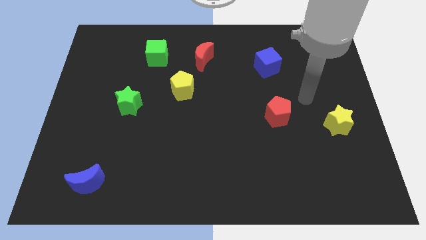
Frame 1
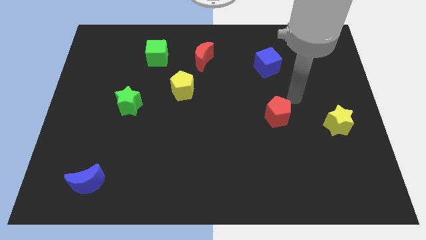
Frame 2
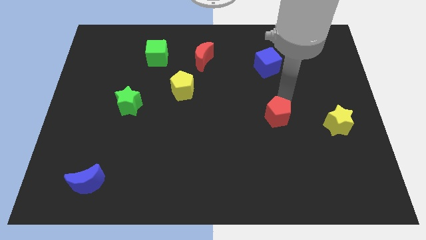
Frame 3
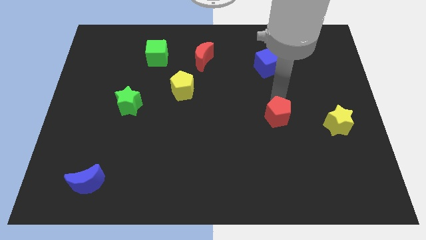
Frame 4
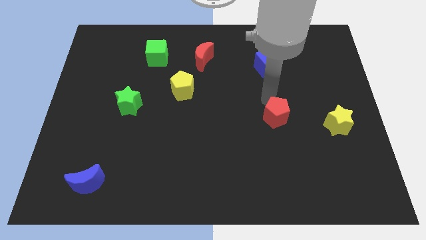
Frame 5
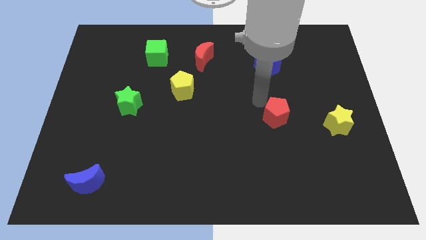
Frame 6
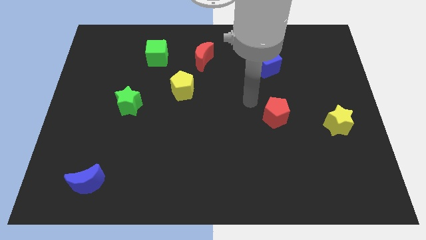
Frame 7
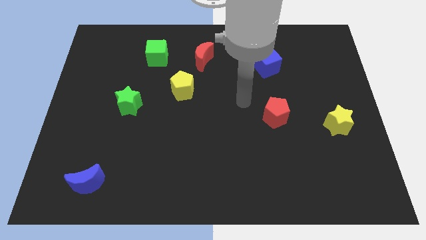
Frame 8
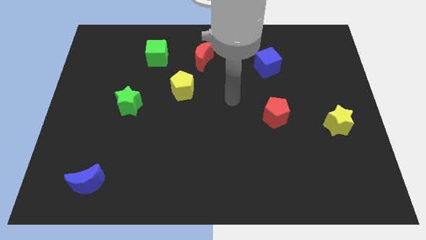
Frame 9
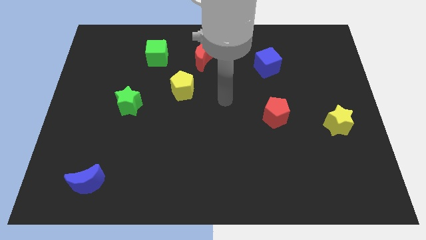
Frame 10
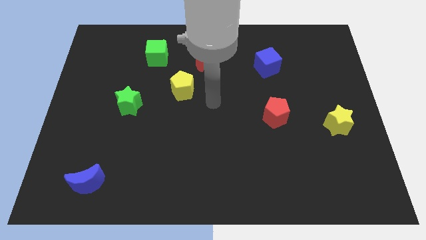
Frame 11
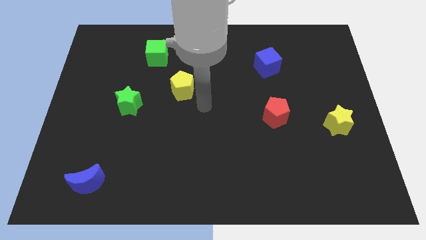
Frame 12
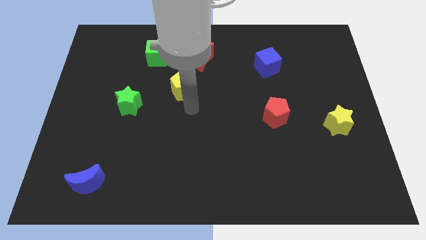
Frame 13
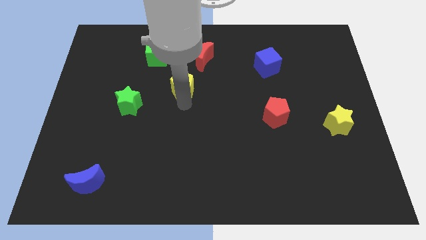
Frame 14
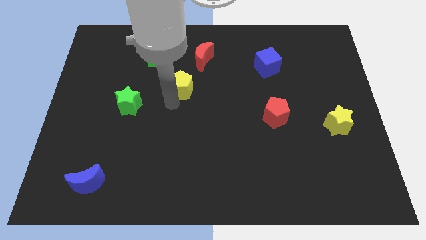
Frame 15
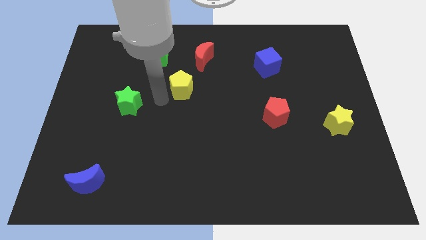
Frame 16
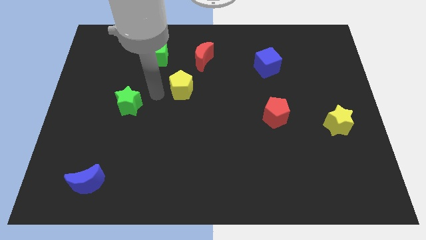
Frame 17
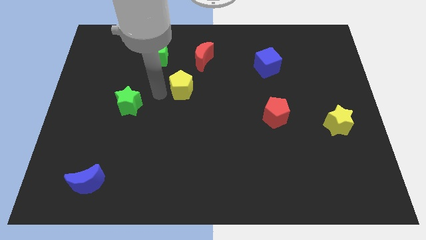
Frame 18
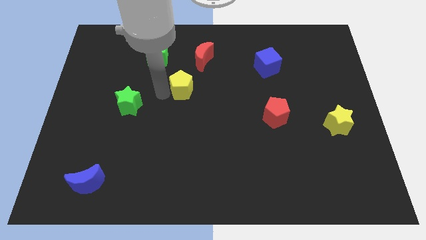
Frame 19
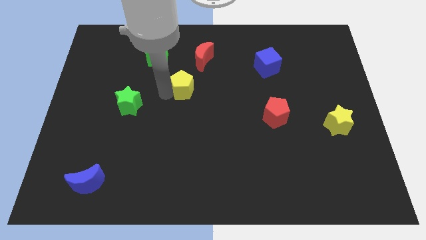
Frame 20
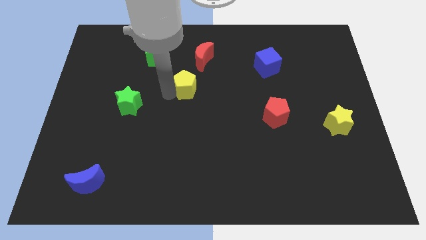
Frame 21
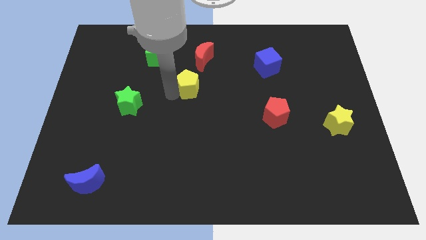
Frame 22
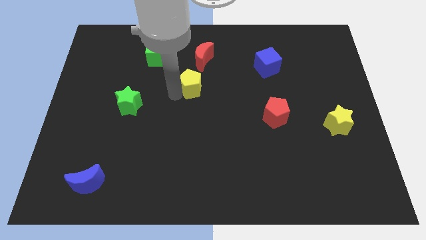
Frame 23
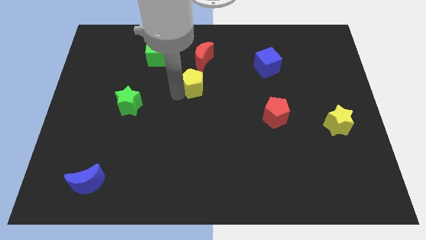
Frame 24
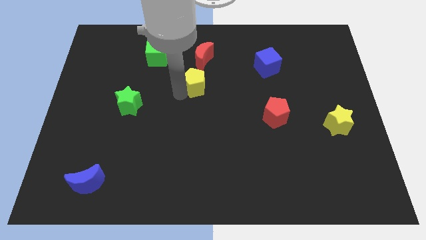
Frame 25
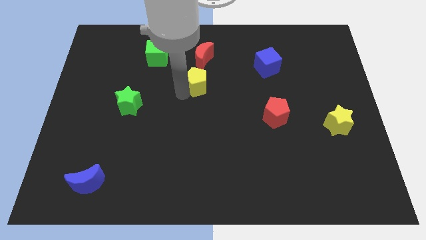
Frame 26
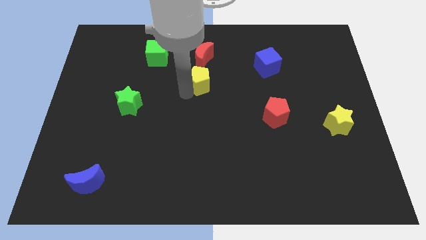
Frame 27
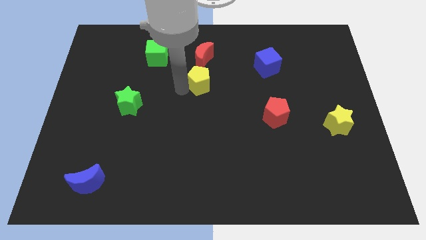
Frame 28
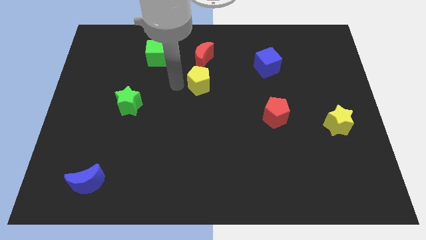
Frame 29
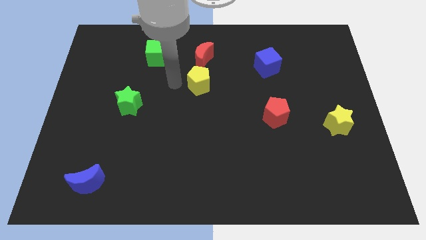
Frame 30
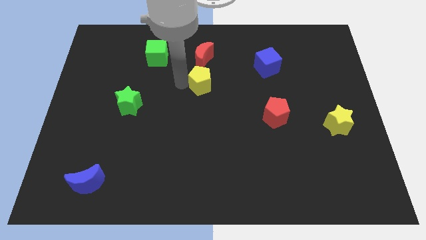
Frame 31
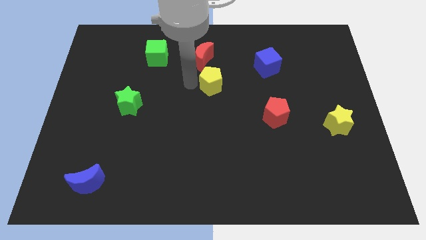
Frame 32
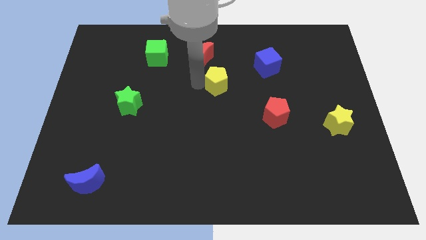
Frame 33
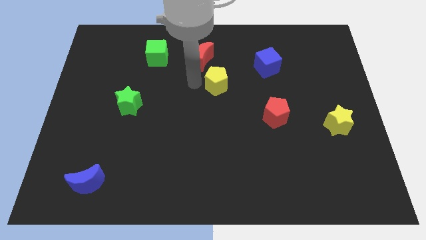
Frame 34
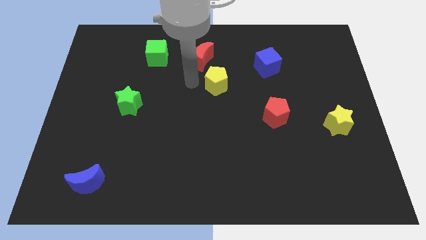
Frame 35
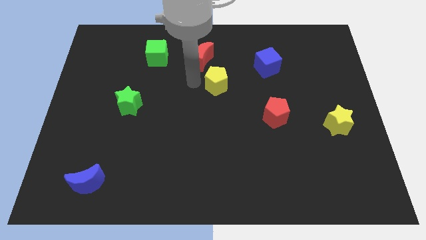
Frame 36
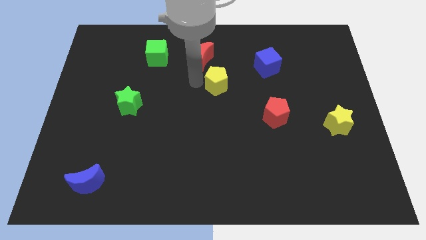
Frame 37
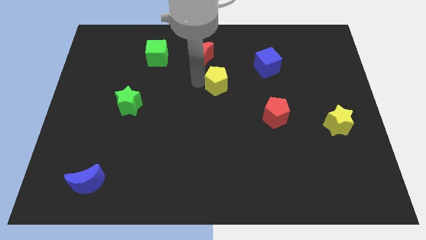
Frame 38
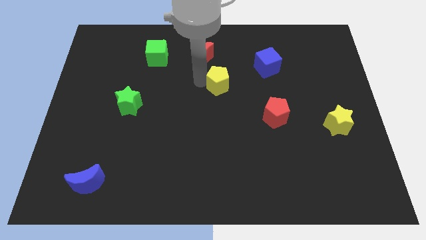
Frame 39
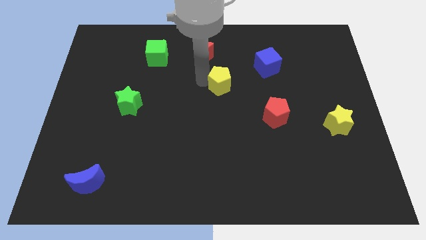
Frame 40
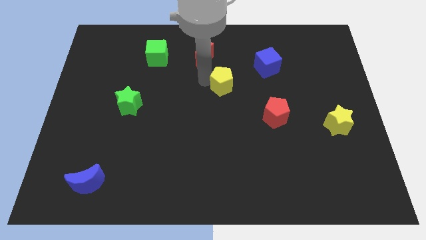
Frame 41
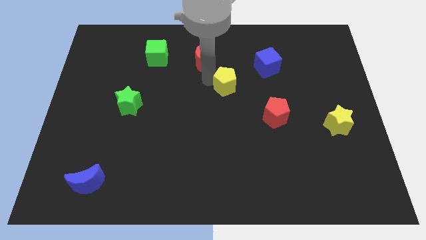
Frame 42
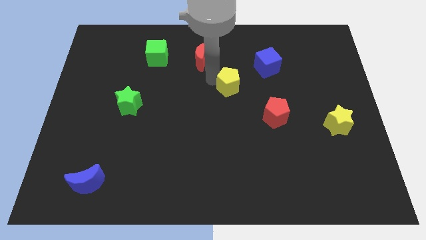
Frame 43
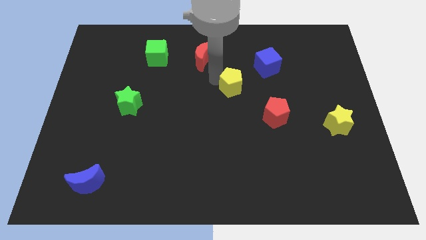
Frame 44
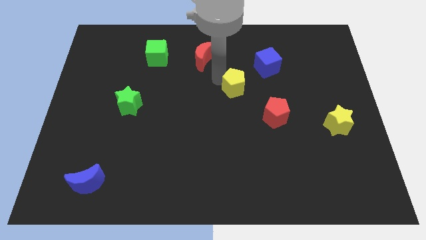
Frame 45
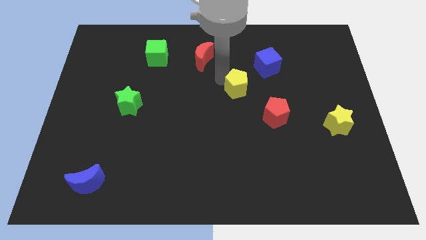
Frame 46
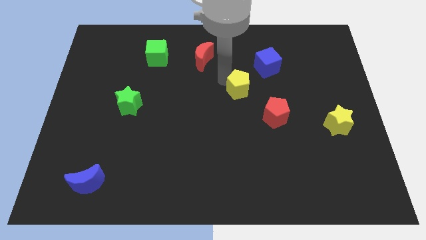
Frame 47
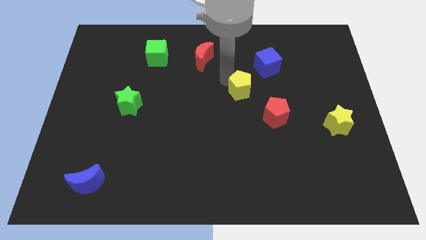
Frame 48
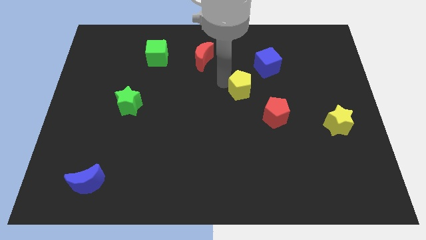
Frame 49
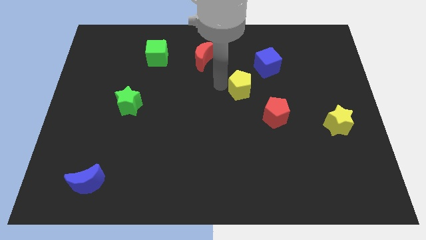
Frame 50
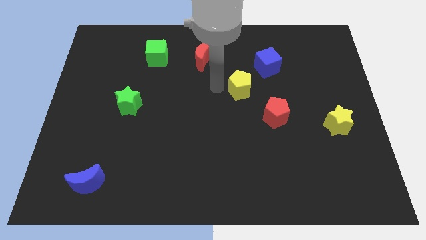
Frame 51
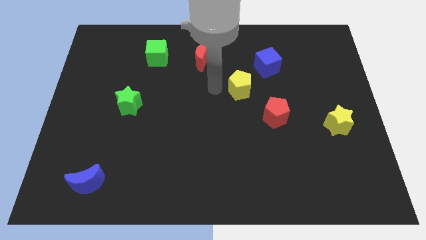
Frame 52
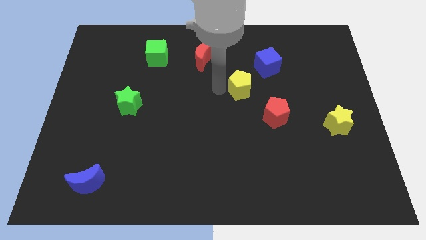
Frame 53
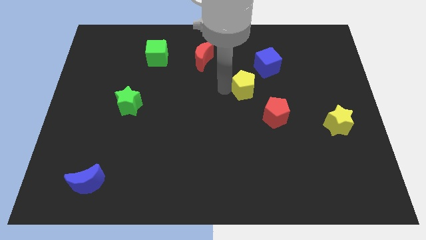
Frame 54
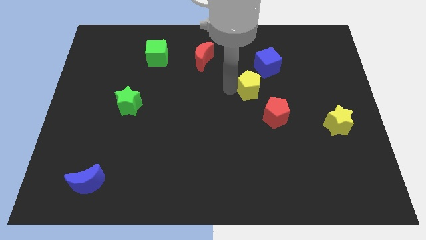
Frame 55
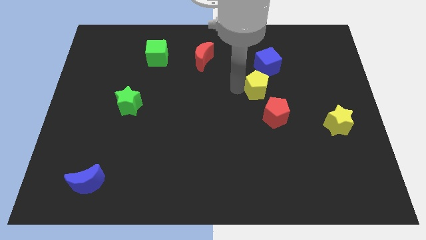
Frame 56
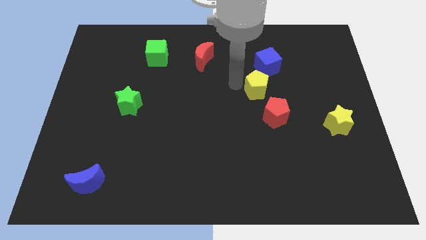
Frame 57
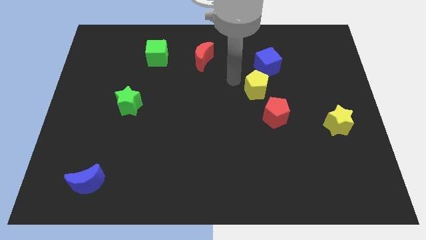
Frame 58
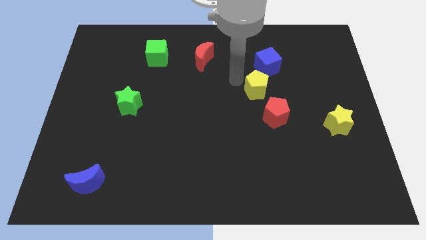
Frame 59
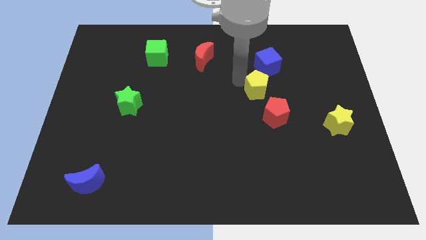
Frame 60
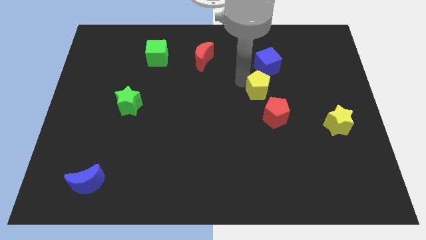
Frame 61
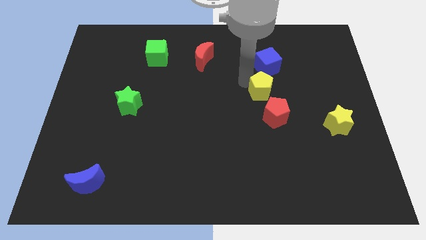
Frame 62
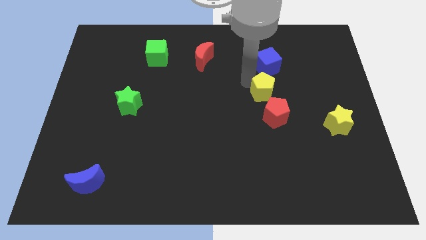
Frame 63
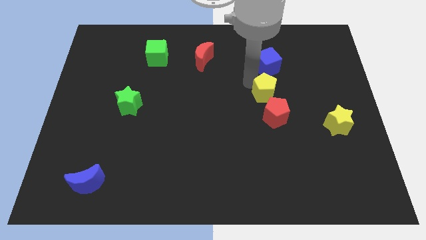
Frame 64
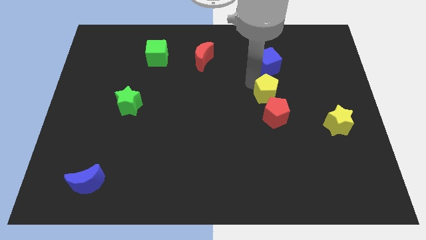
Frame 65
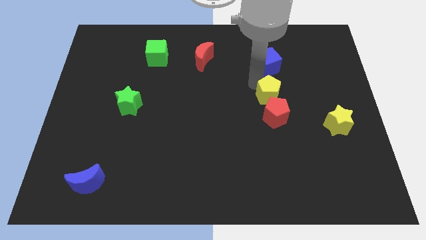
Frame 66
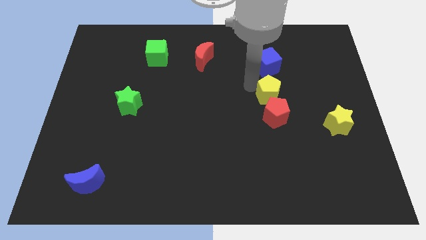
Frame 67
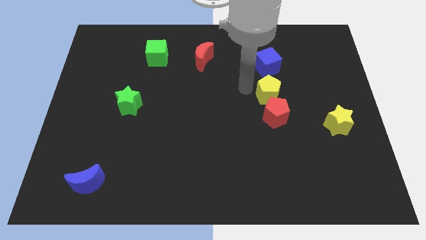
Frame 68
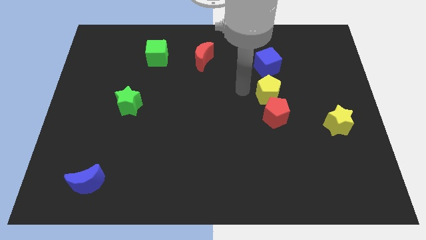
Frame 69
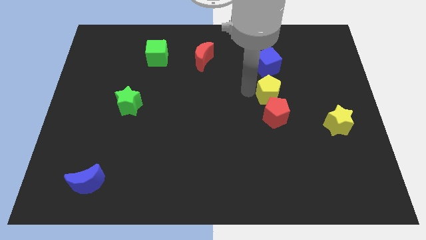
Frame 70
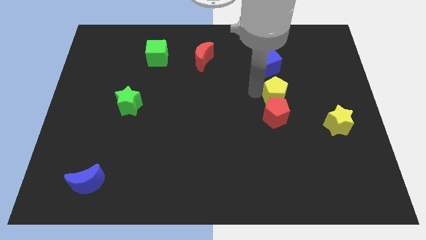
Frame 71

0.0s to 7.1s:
slide the yellow pentagon diagonally up and to the right of the red pentagon
